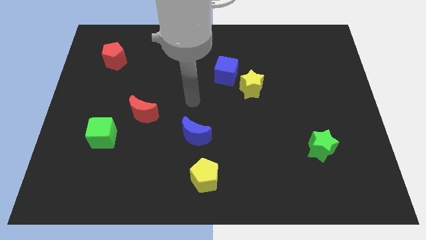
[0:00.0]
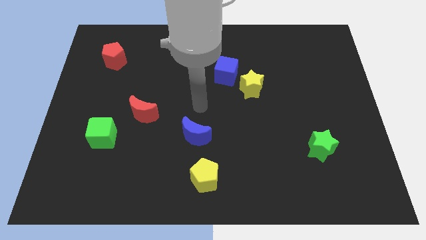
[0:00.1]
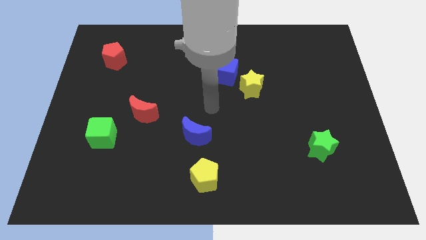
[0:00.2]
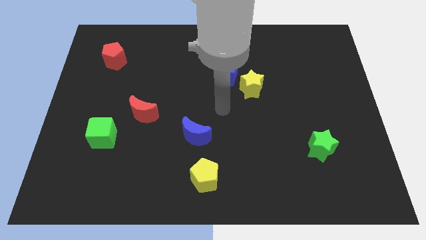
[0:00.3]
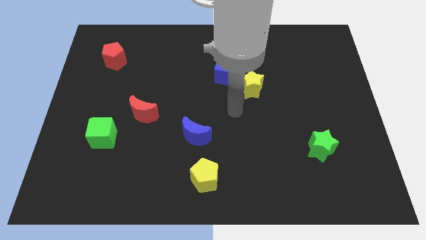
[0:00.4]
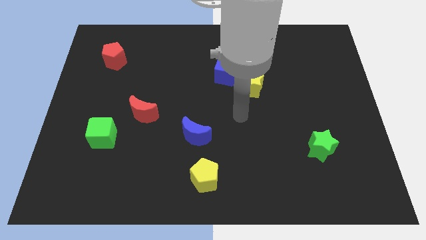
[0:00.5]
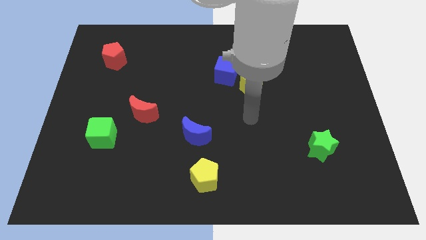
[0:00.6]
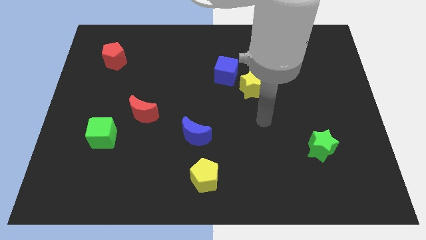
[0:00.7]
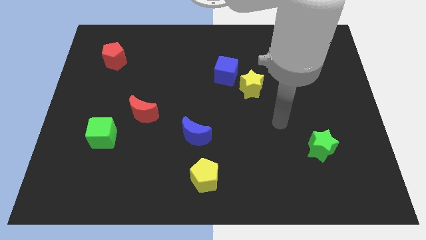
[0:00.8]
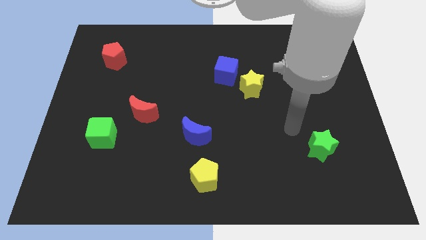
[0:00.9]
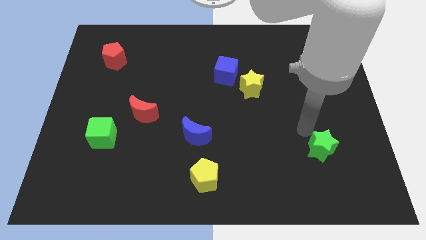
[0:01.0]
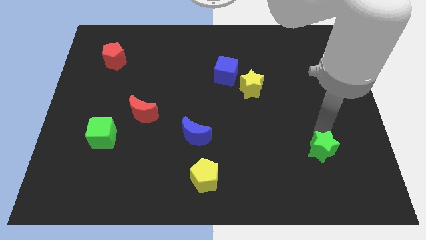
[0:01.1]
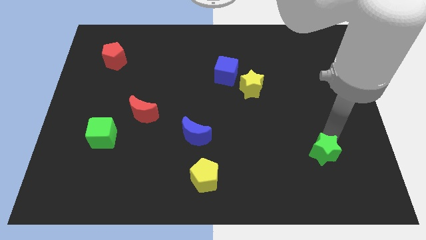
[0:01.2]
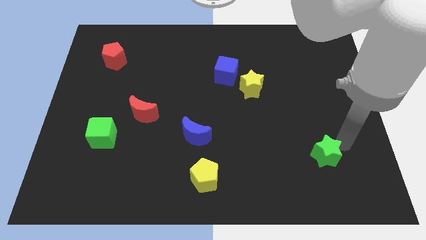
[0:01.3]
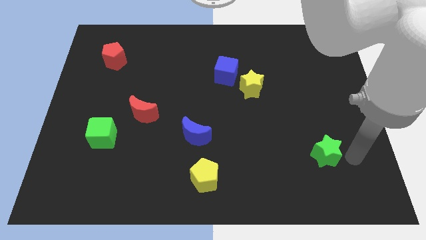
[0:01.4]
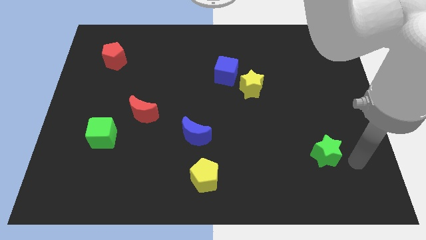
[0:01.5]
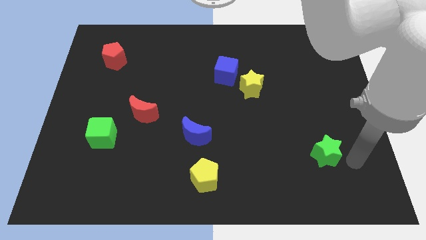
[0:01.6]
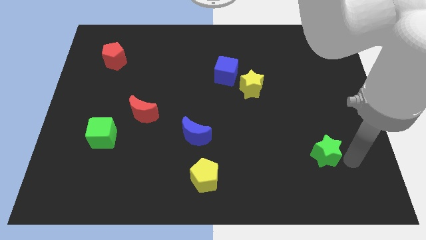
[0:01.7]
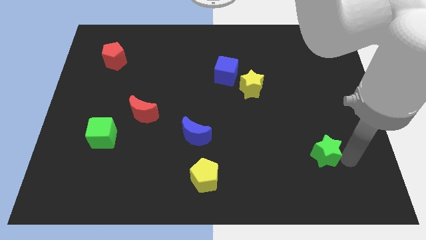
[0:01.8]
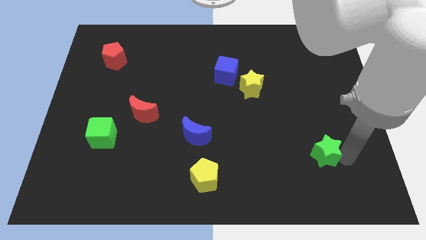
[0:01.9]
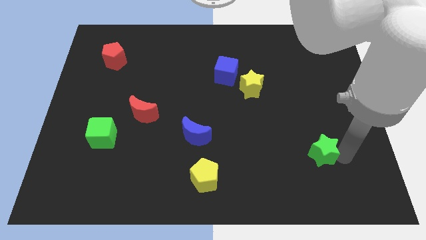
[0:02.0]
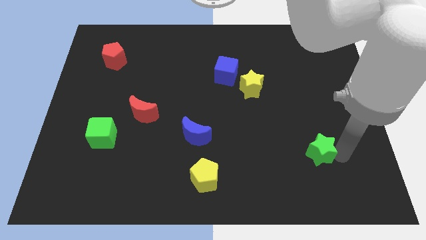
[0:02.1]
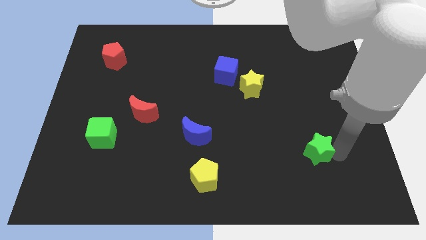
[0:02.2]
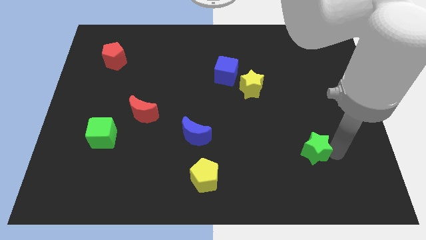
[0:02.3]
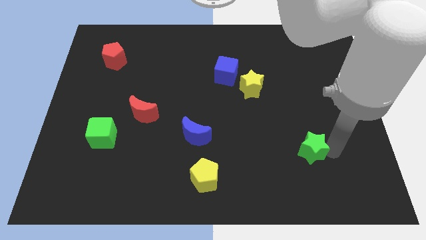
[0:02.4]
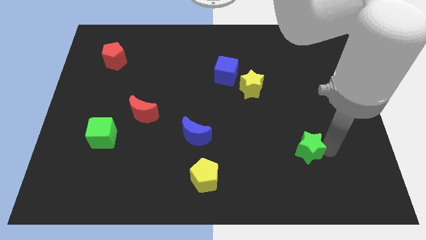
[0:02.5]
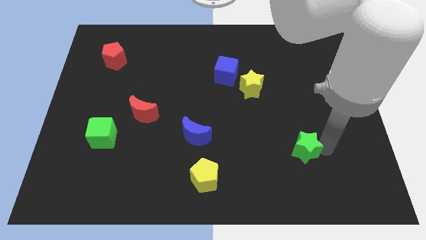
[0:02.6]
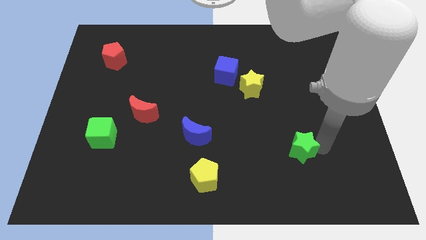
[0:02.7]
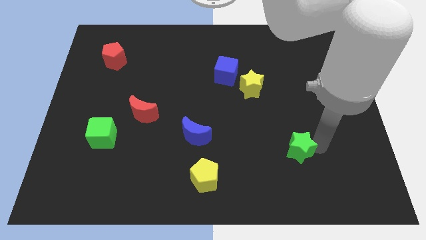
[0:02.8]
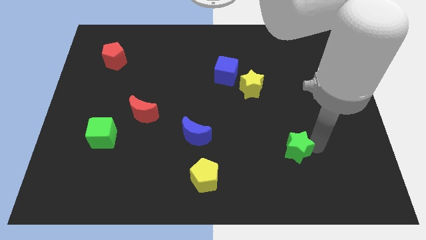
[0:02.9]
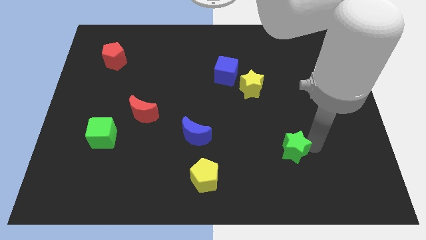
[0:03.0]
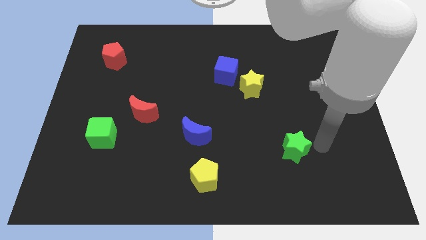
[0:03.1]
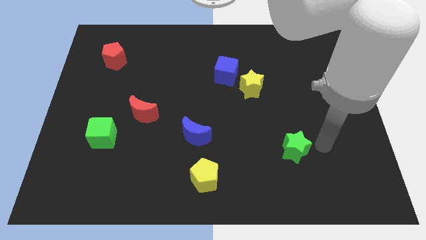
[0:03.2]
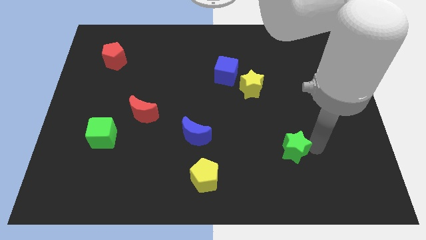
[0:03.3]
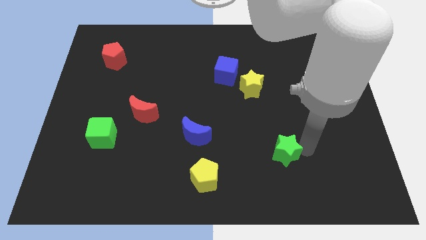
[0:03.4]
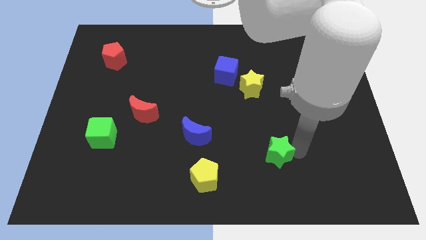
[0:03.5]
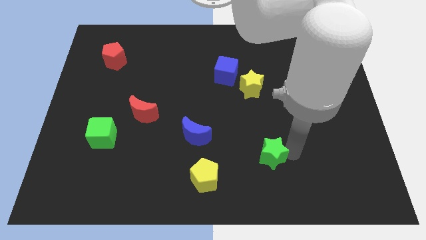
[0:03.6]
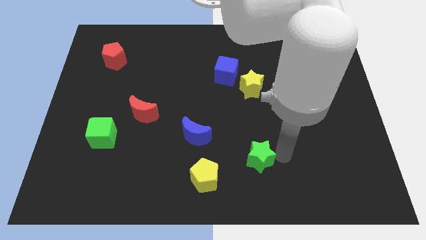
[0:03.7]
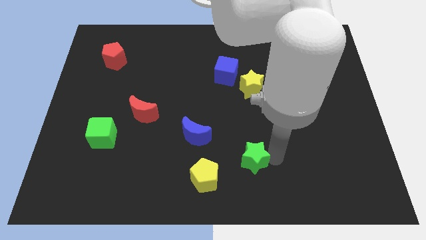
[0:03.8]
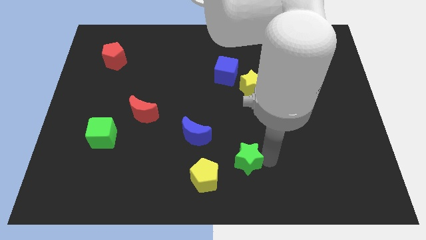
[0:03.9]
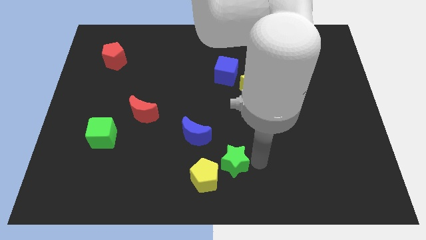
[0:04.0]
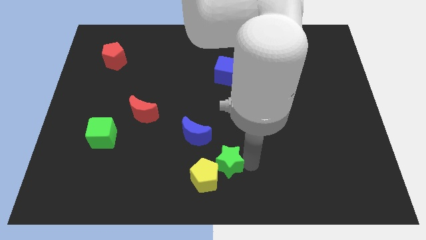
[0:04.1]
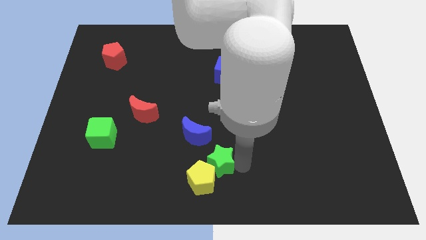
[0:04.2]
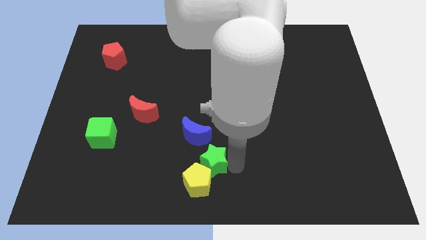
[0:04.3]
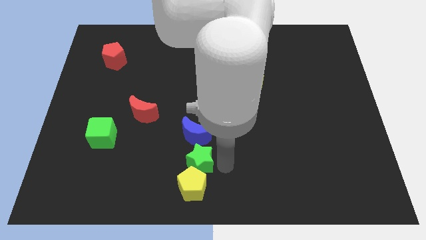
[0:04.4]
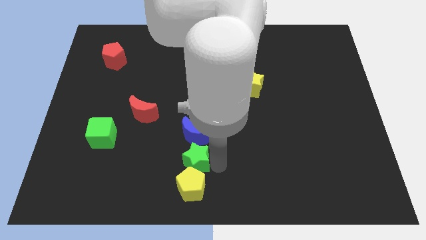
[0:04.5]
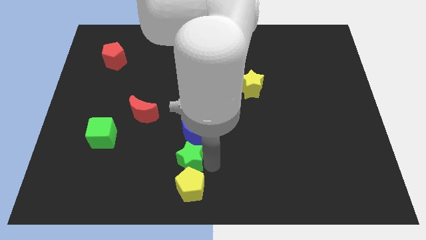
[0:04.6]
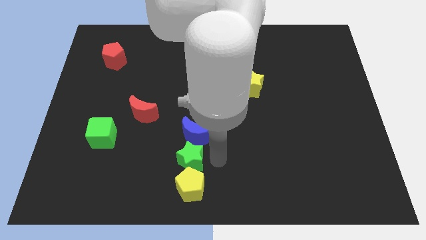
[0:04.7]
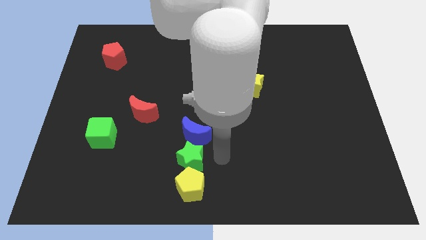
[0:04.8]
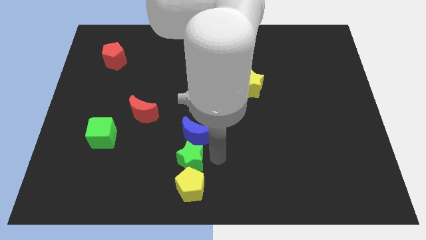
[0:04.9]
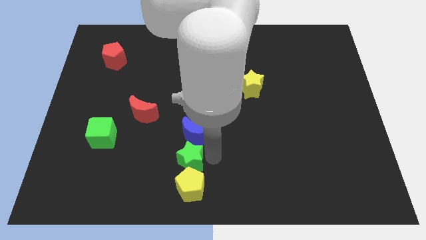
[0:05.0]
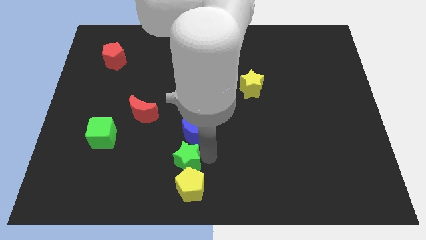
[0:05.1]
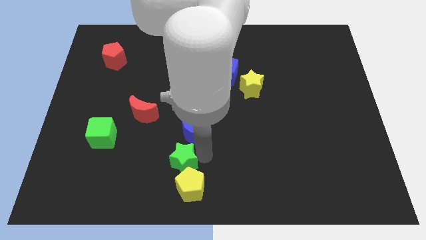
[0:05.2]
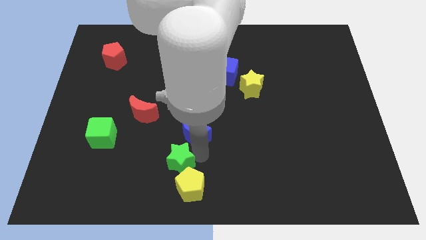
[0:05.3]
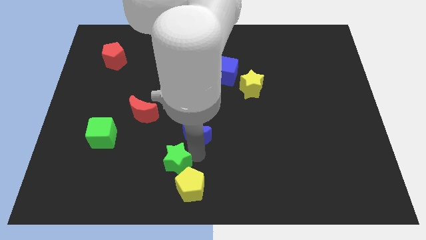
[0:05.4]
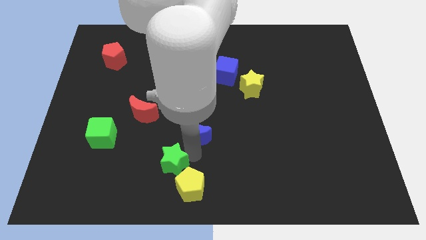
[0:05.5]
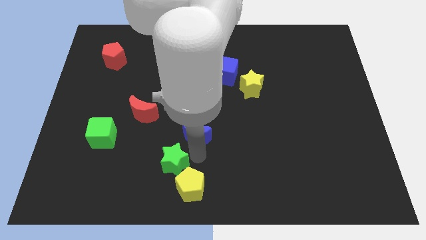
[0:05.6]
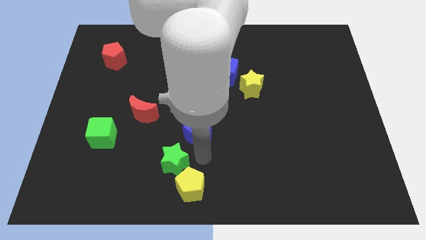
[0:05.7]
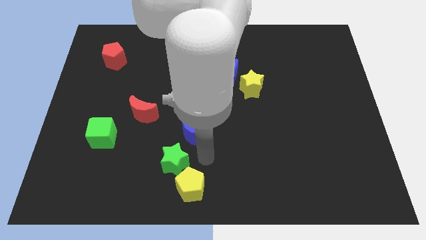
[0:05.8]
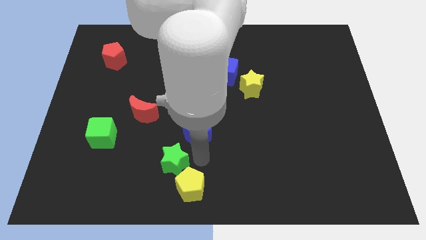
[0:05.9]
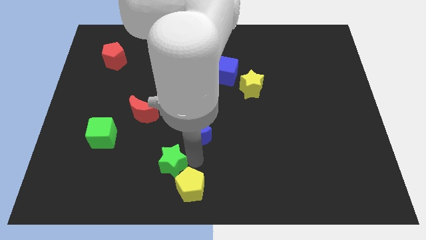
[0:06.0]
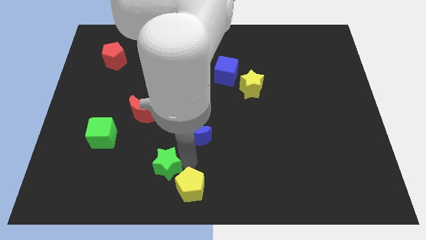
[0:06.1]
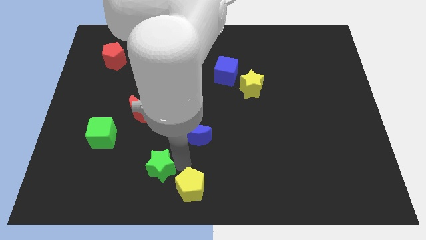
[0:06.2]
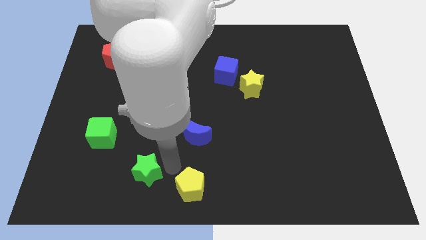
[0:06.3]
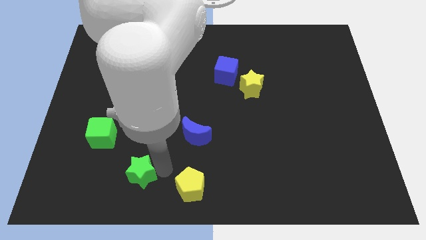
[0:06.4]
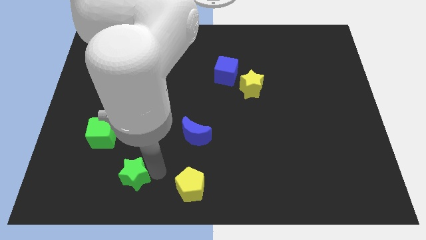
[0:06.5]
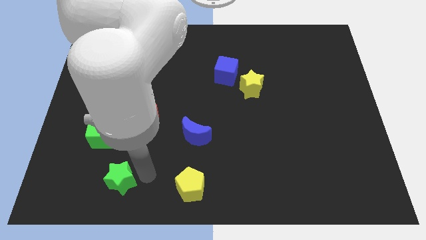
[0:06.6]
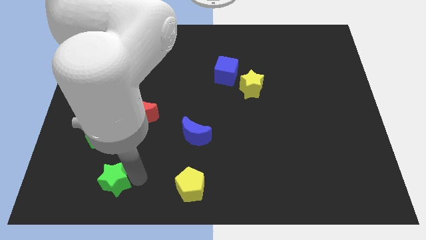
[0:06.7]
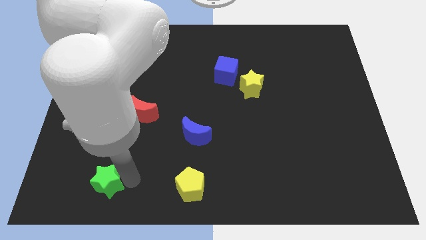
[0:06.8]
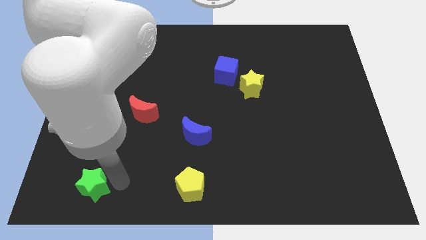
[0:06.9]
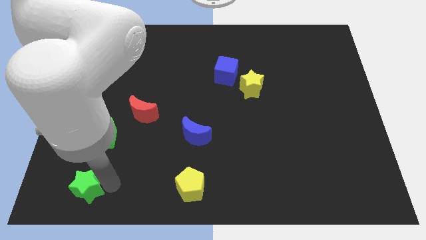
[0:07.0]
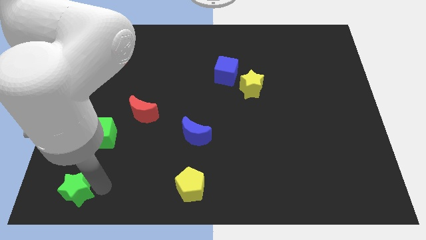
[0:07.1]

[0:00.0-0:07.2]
put the green star to the bottom left of the board
